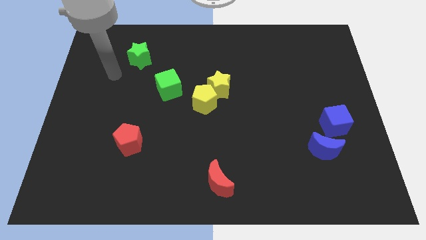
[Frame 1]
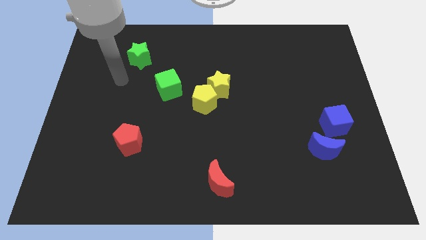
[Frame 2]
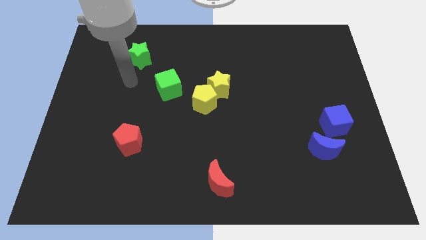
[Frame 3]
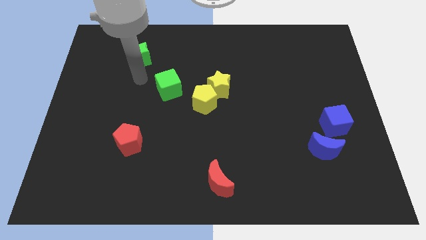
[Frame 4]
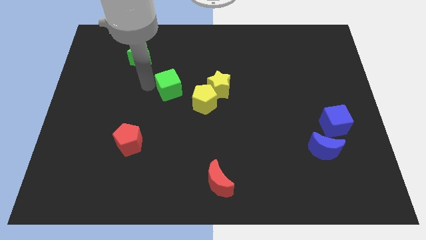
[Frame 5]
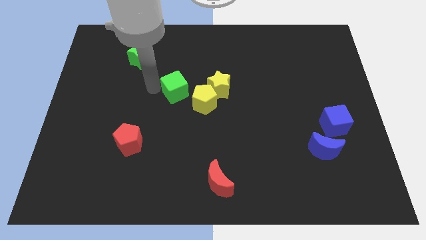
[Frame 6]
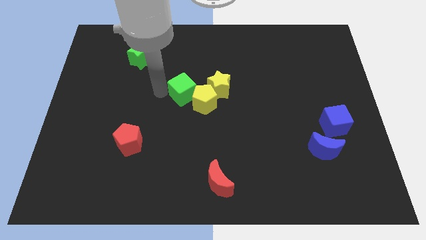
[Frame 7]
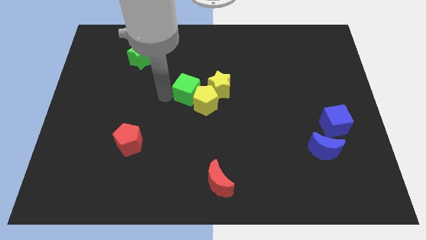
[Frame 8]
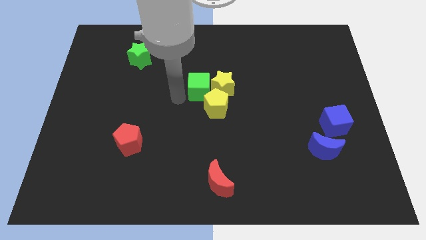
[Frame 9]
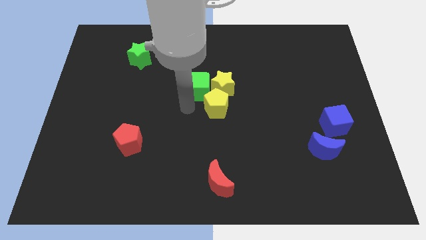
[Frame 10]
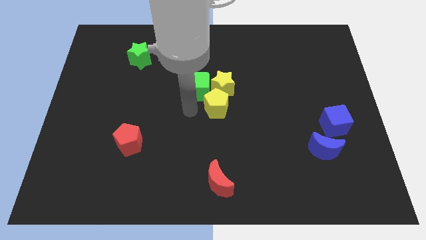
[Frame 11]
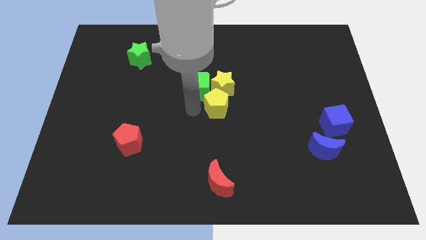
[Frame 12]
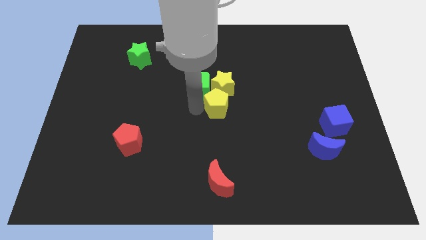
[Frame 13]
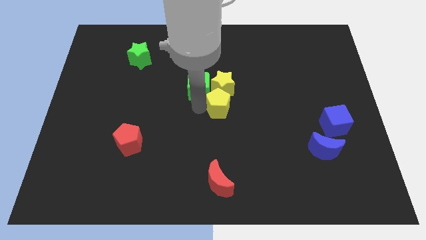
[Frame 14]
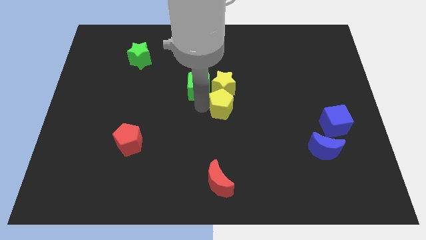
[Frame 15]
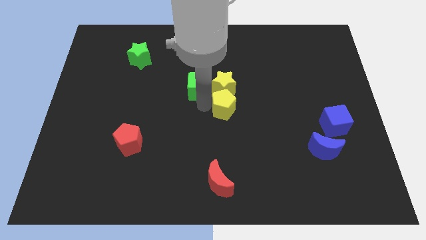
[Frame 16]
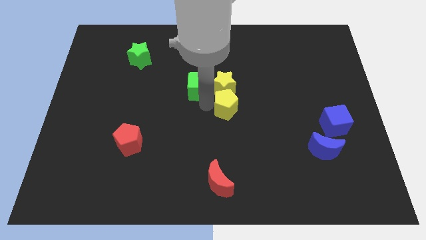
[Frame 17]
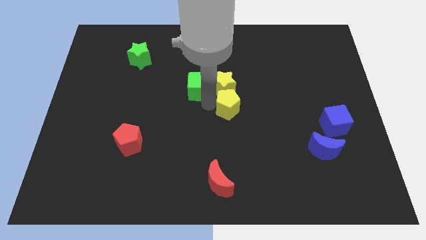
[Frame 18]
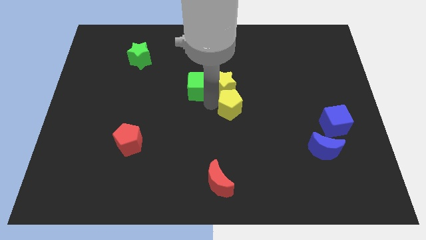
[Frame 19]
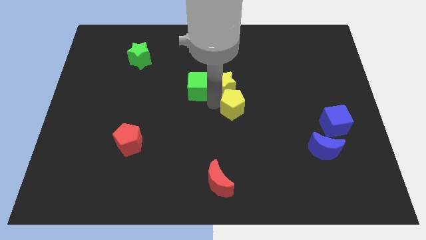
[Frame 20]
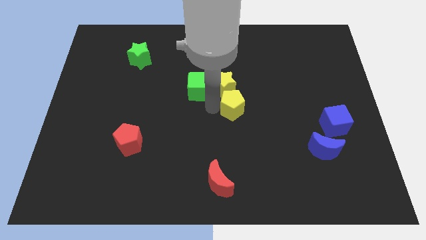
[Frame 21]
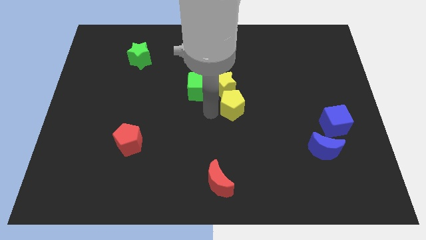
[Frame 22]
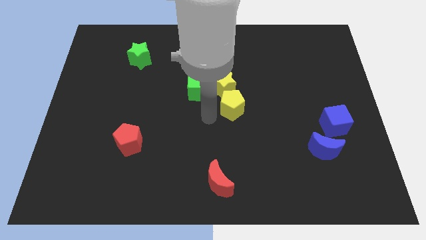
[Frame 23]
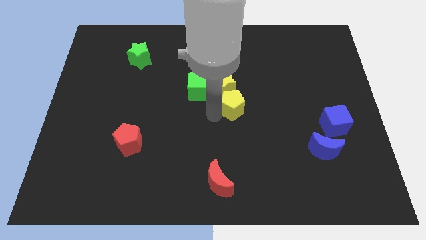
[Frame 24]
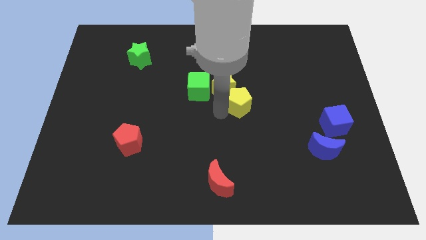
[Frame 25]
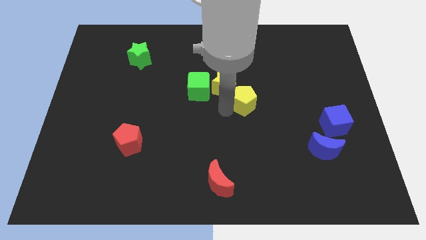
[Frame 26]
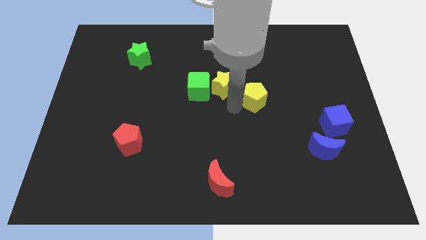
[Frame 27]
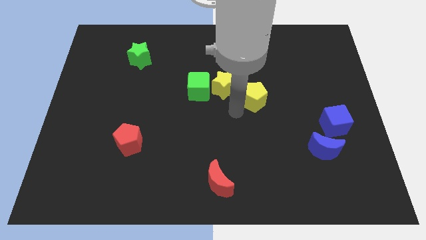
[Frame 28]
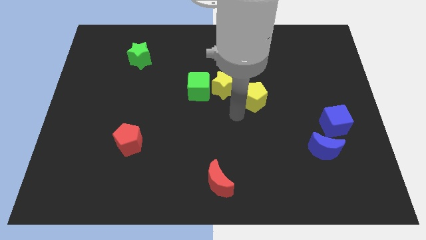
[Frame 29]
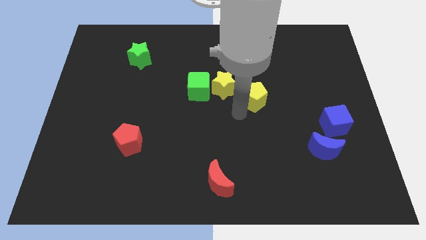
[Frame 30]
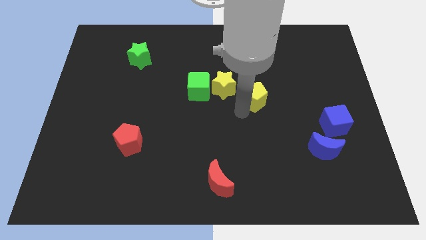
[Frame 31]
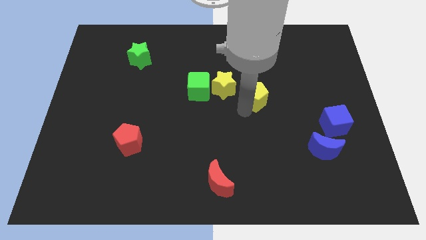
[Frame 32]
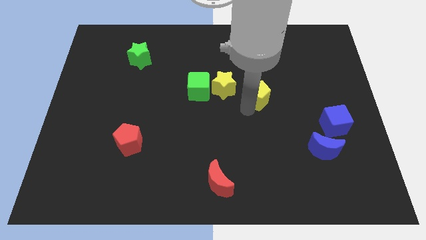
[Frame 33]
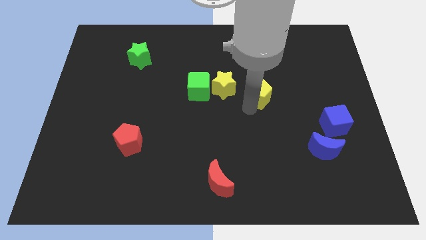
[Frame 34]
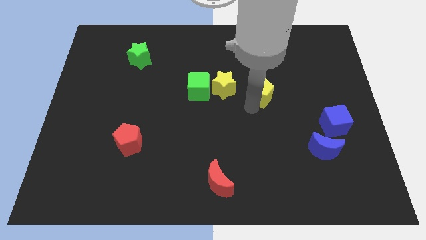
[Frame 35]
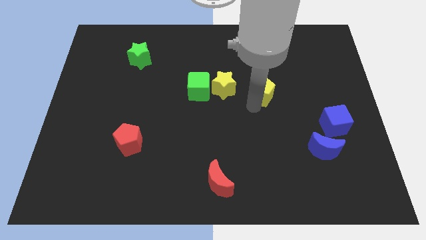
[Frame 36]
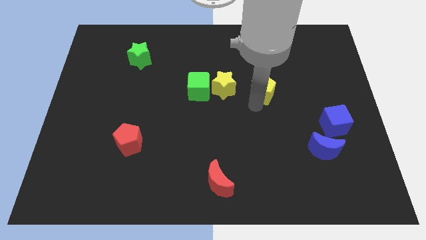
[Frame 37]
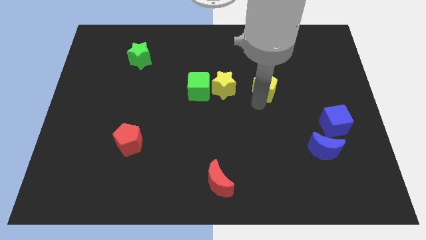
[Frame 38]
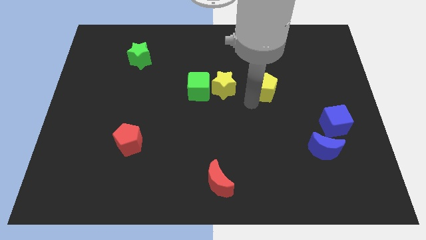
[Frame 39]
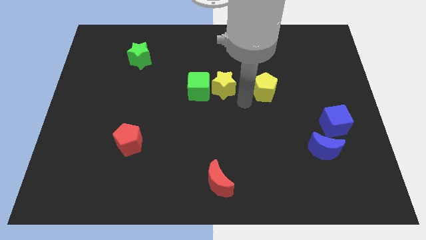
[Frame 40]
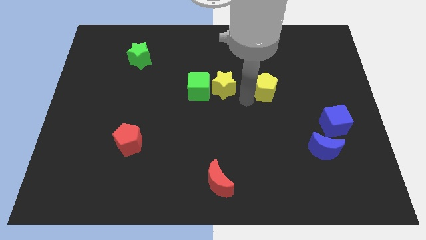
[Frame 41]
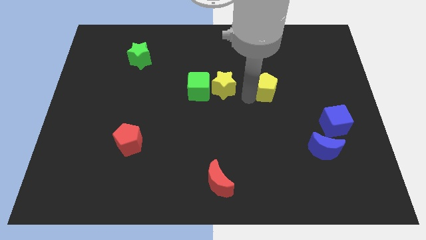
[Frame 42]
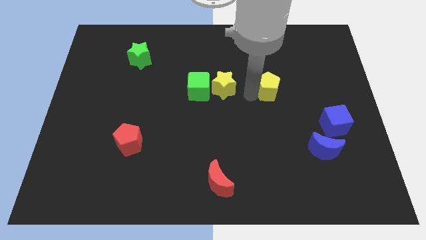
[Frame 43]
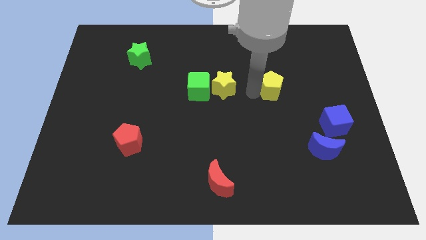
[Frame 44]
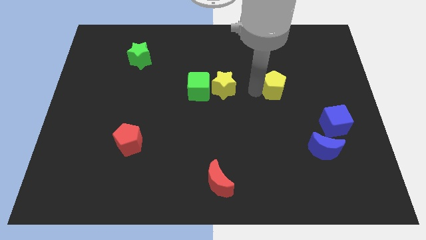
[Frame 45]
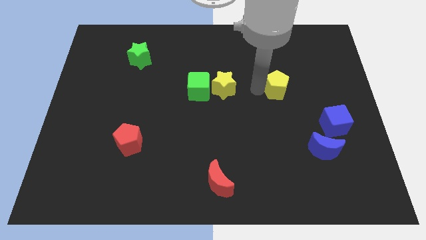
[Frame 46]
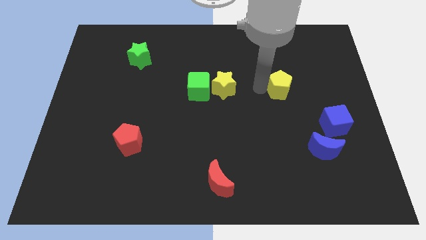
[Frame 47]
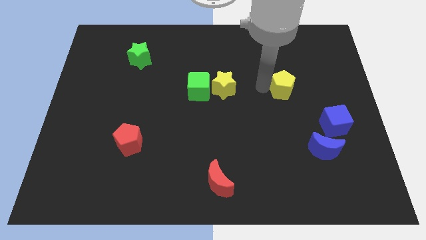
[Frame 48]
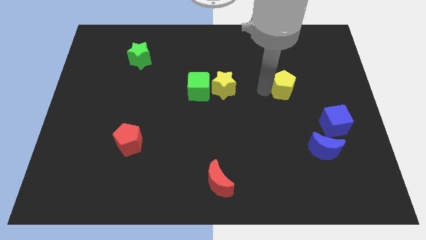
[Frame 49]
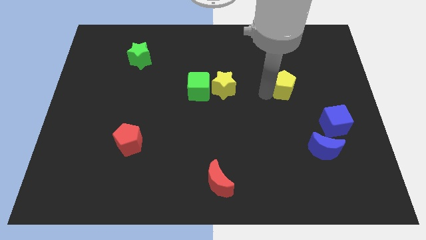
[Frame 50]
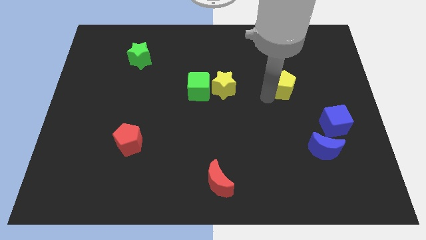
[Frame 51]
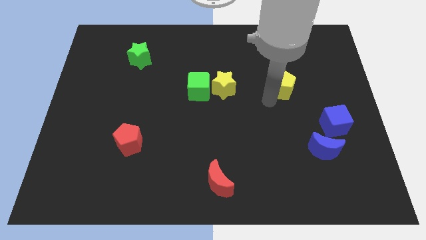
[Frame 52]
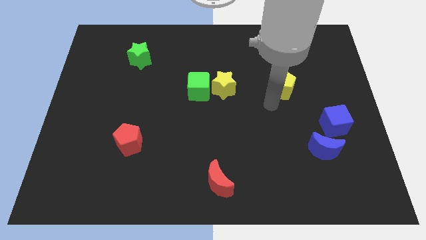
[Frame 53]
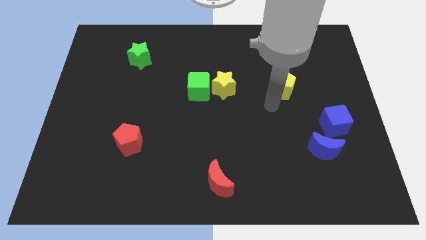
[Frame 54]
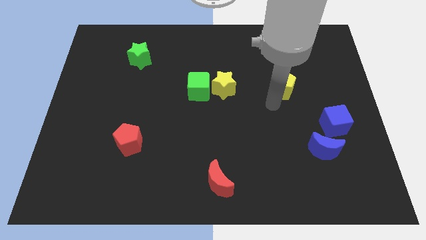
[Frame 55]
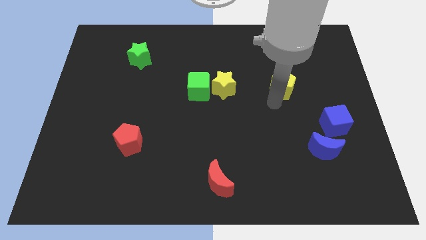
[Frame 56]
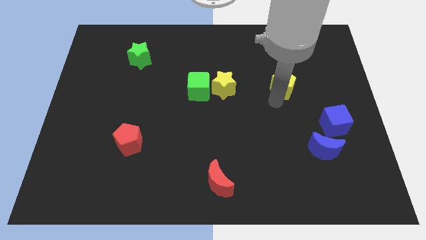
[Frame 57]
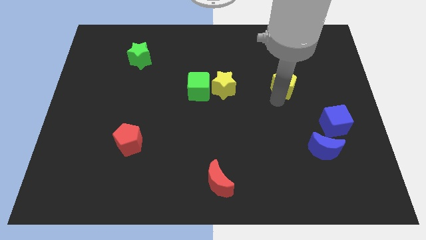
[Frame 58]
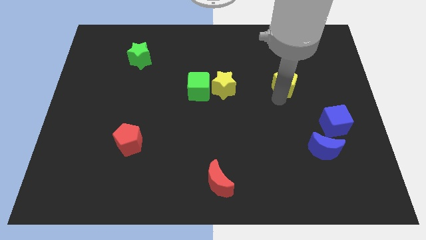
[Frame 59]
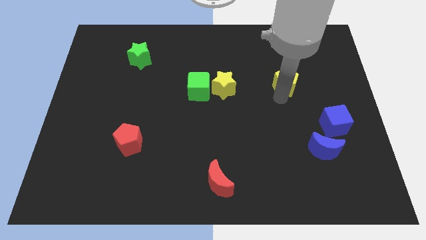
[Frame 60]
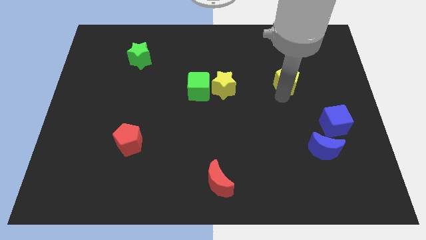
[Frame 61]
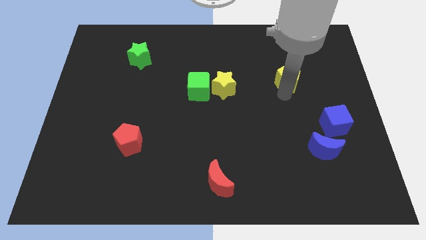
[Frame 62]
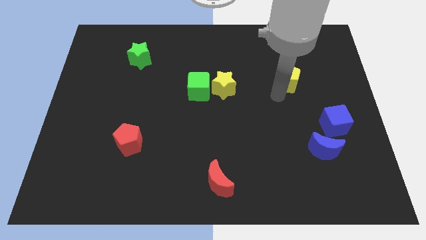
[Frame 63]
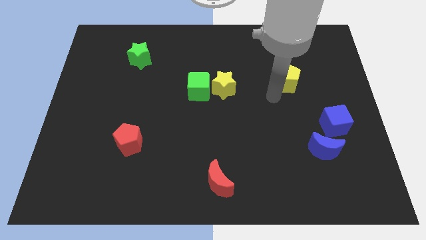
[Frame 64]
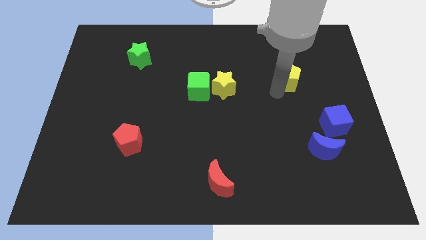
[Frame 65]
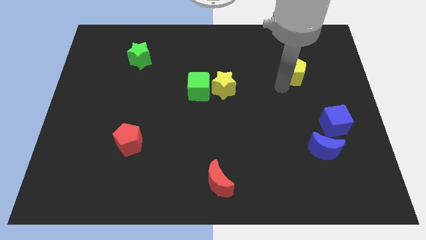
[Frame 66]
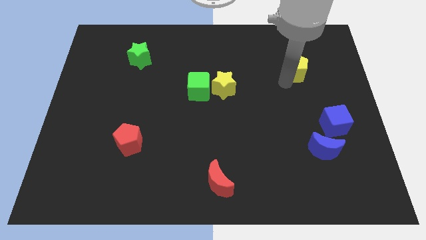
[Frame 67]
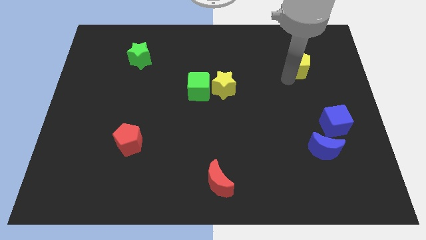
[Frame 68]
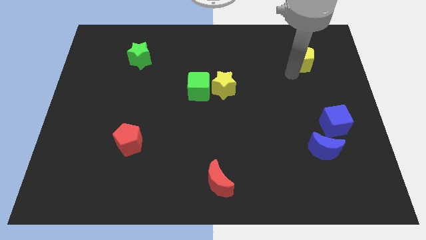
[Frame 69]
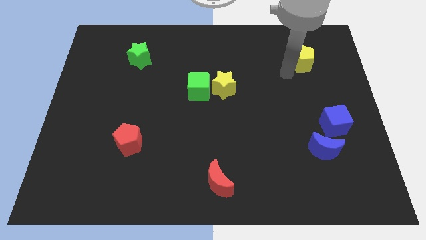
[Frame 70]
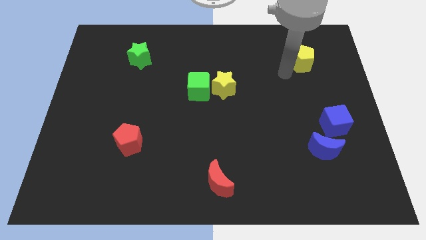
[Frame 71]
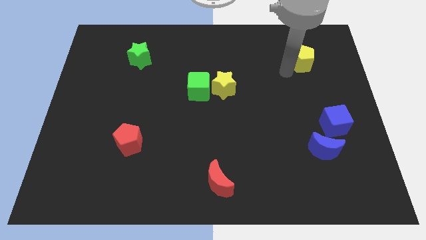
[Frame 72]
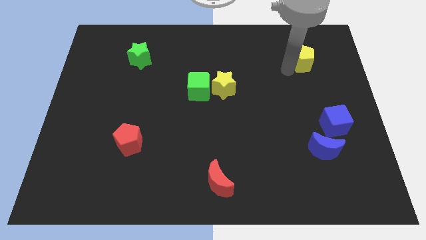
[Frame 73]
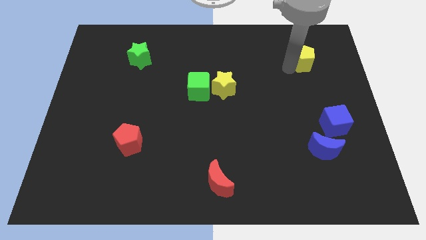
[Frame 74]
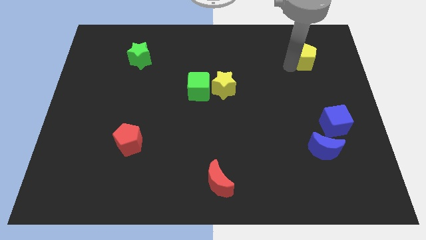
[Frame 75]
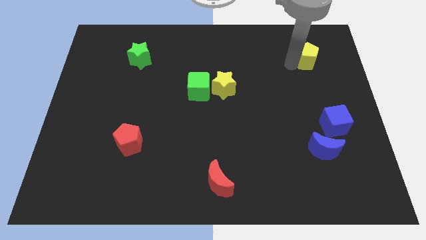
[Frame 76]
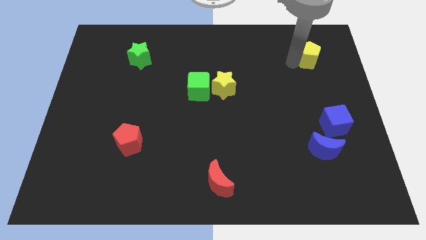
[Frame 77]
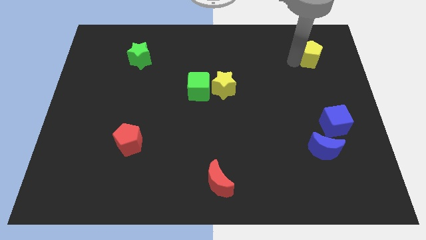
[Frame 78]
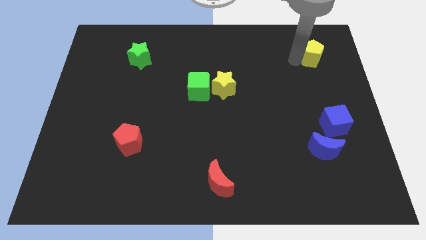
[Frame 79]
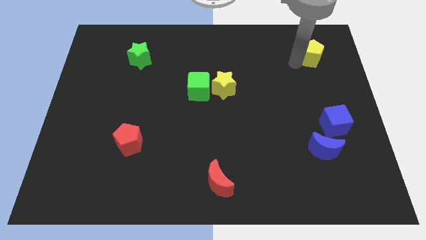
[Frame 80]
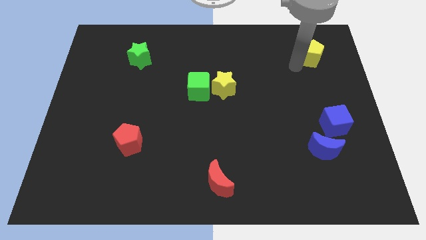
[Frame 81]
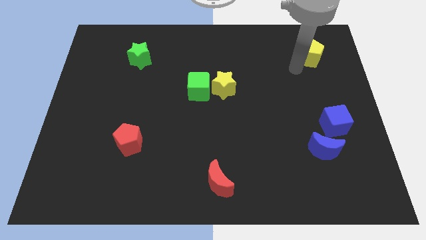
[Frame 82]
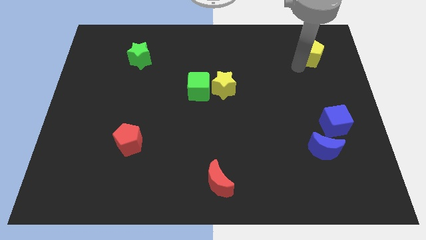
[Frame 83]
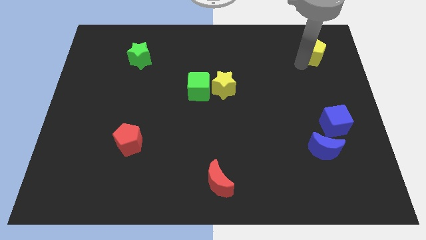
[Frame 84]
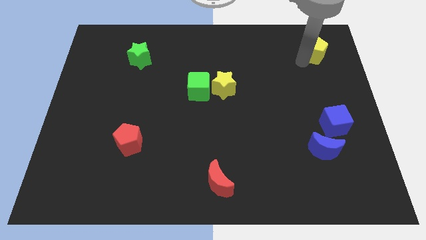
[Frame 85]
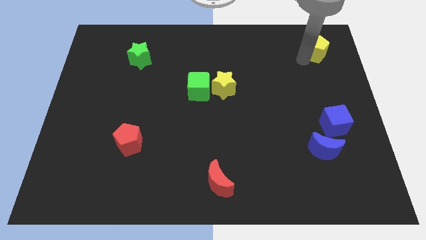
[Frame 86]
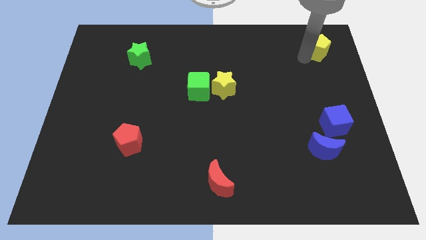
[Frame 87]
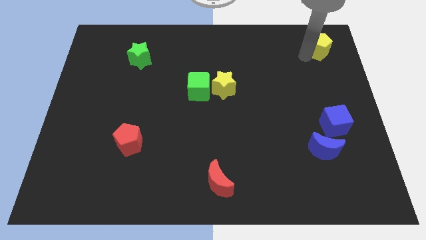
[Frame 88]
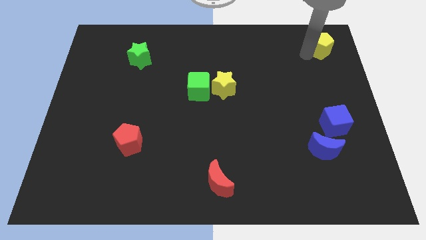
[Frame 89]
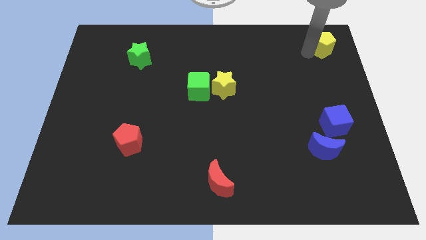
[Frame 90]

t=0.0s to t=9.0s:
slide the yellow pentagon to the top right corner
